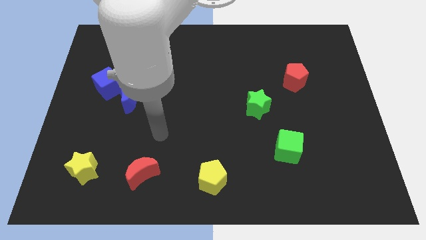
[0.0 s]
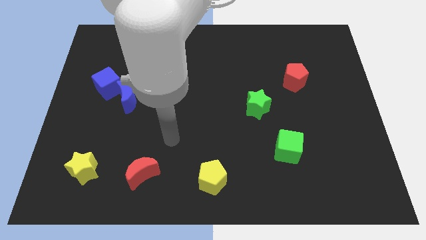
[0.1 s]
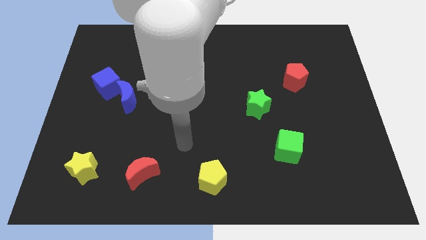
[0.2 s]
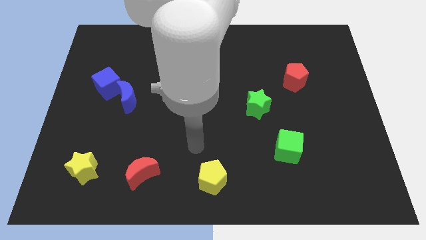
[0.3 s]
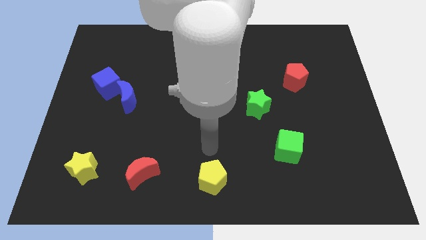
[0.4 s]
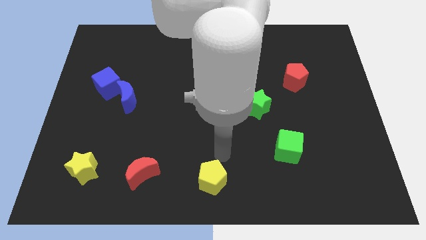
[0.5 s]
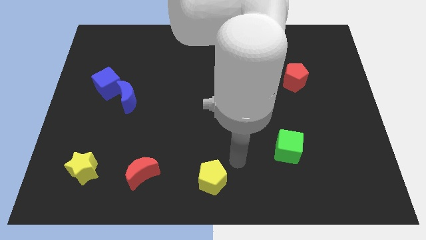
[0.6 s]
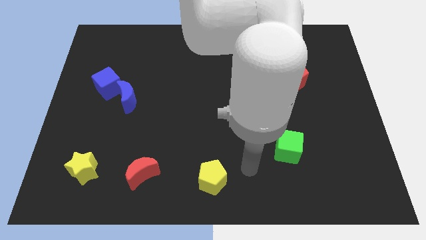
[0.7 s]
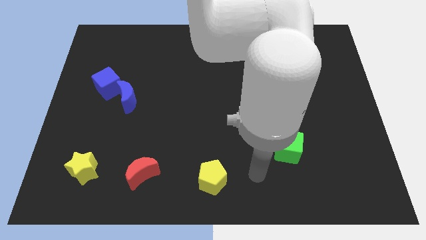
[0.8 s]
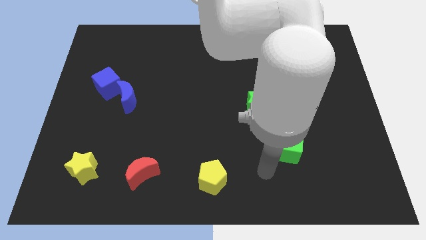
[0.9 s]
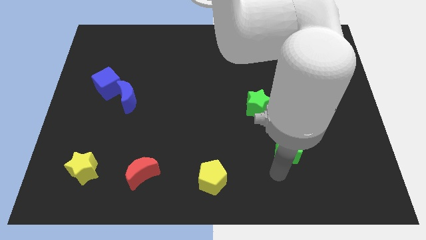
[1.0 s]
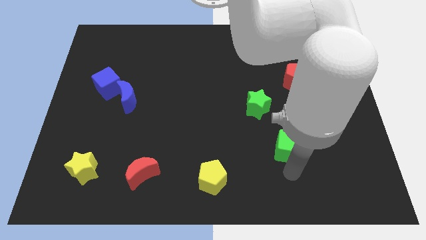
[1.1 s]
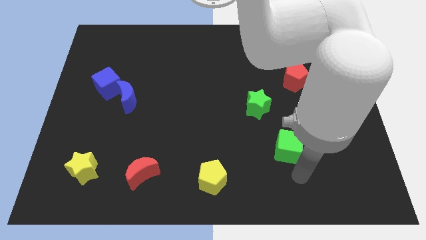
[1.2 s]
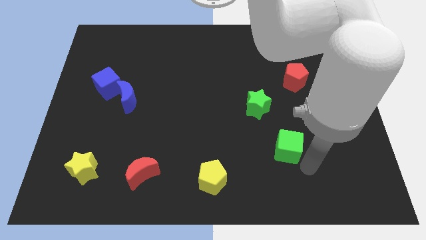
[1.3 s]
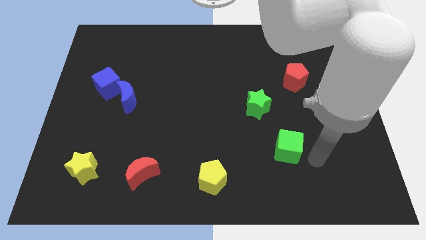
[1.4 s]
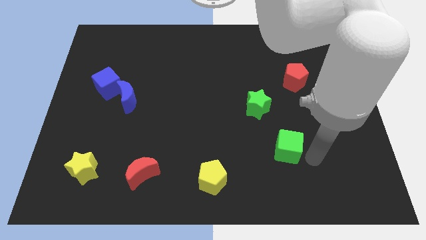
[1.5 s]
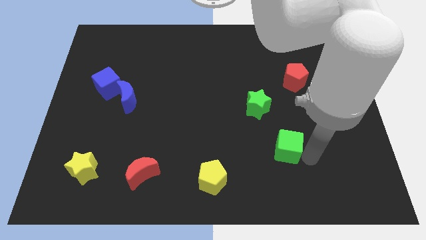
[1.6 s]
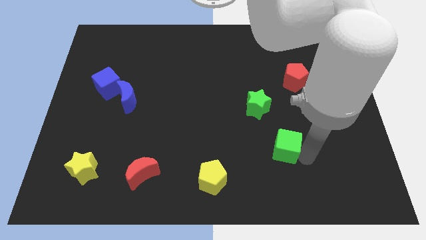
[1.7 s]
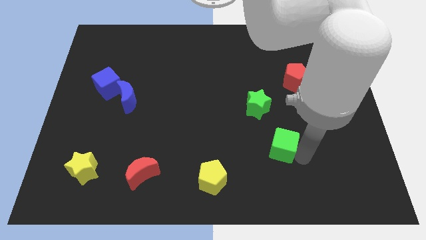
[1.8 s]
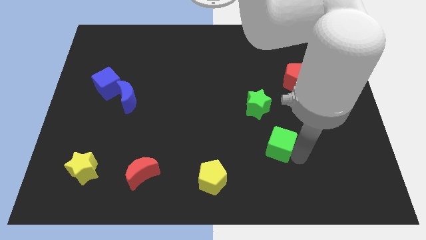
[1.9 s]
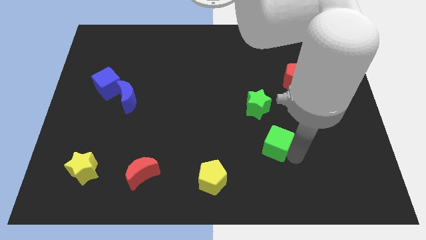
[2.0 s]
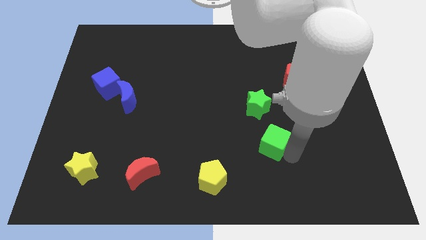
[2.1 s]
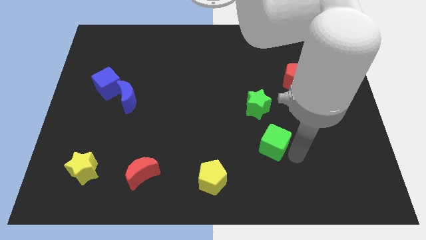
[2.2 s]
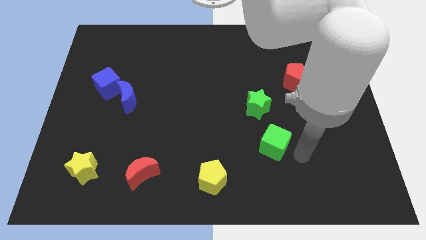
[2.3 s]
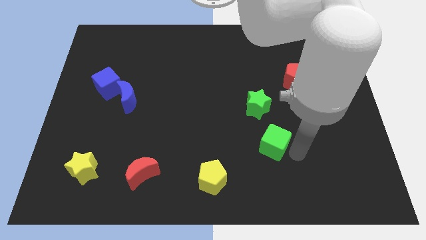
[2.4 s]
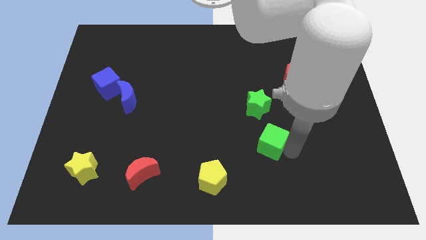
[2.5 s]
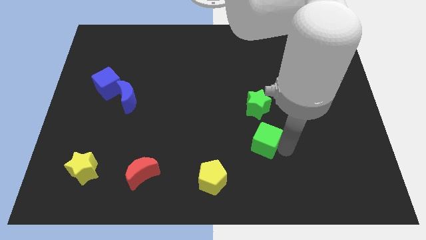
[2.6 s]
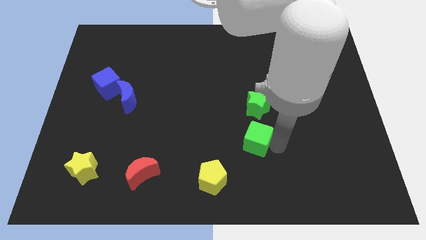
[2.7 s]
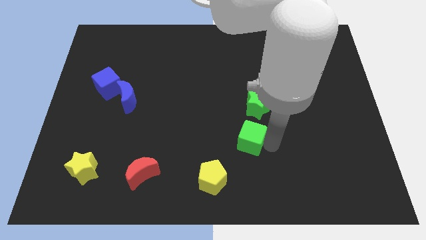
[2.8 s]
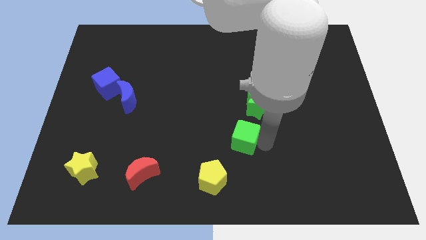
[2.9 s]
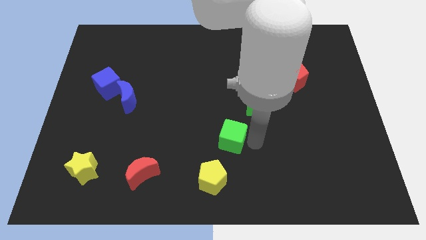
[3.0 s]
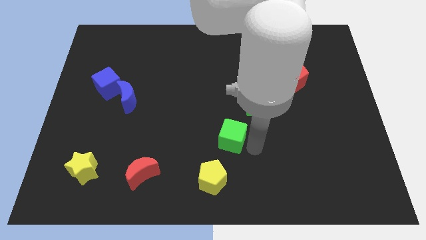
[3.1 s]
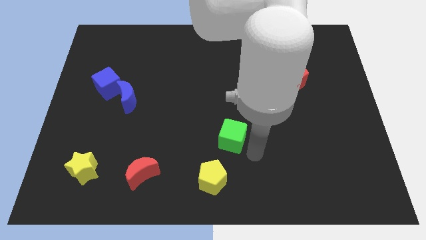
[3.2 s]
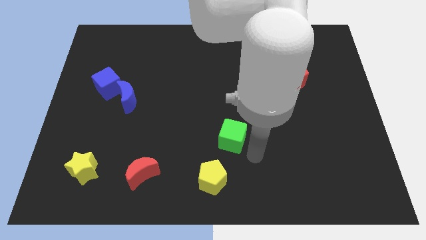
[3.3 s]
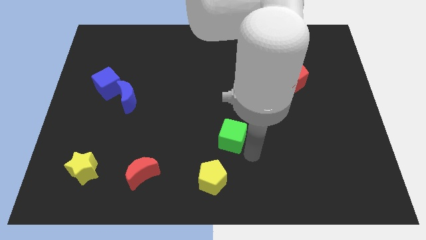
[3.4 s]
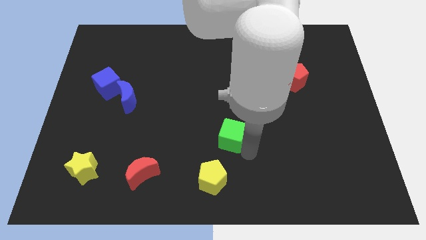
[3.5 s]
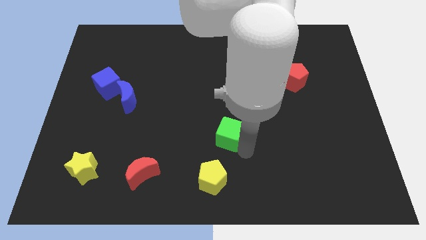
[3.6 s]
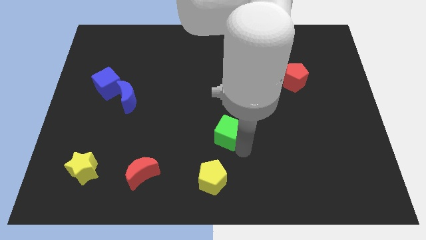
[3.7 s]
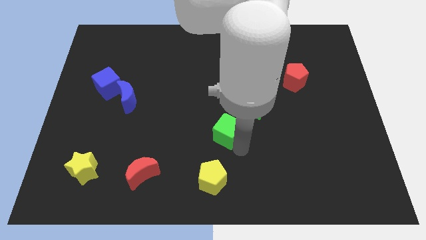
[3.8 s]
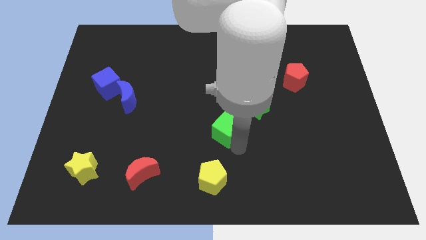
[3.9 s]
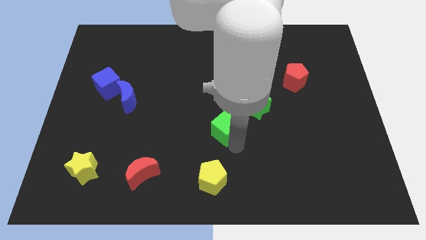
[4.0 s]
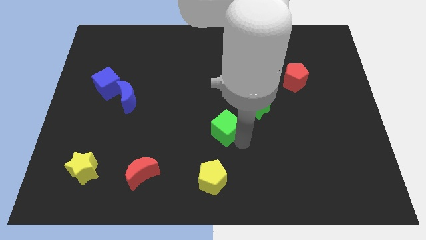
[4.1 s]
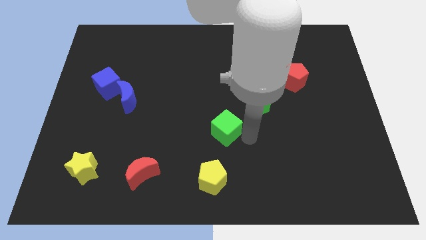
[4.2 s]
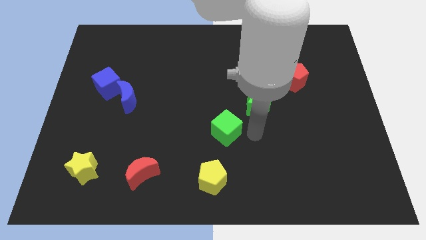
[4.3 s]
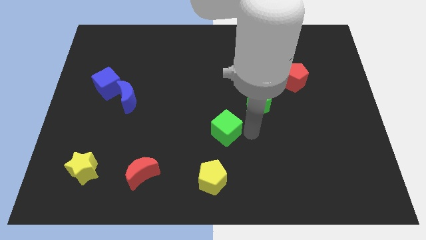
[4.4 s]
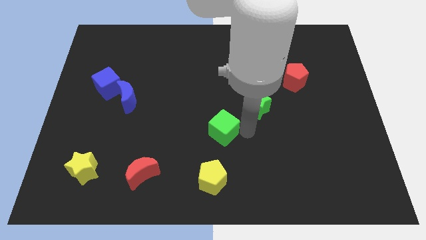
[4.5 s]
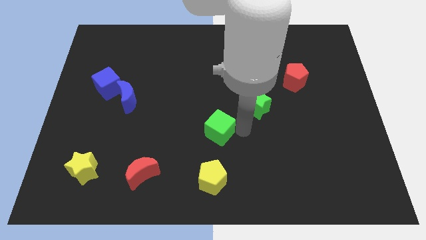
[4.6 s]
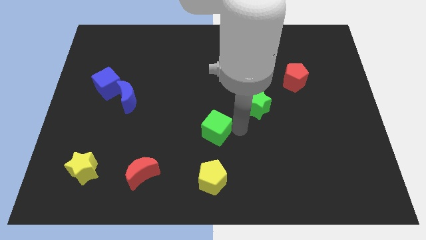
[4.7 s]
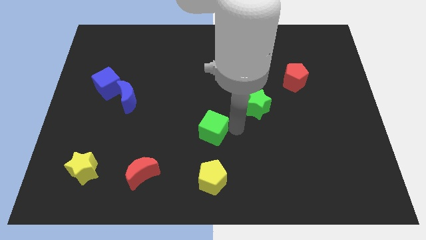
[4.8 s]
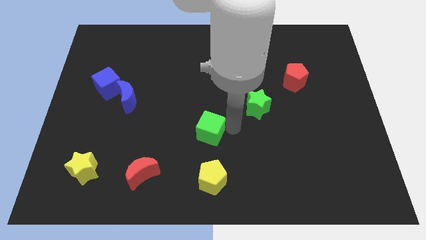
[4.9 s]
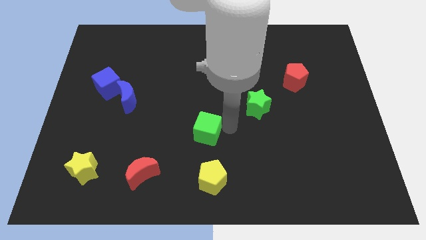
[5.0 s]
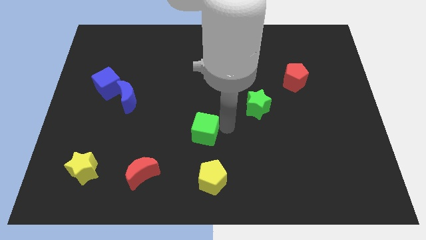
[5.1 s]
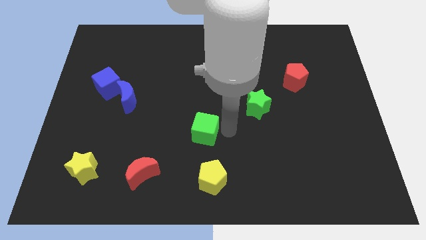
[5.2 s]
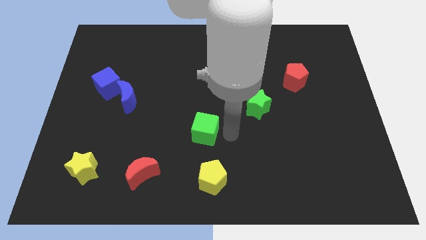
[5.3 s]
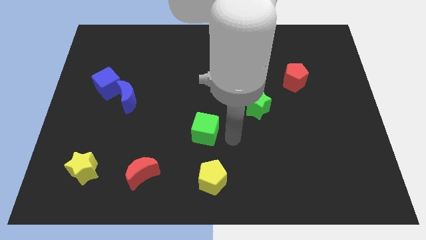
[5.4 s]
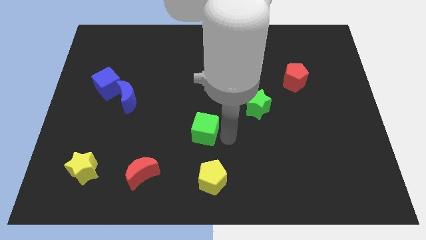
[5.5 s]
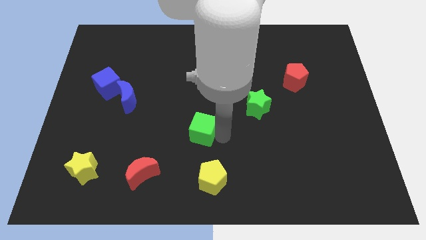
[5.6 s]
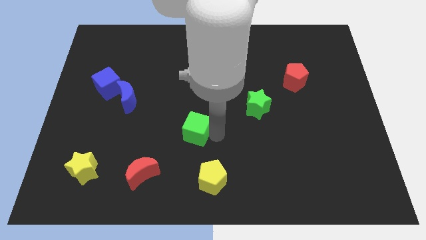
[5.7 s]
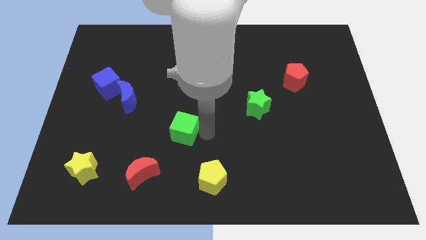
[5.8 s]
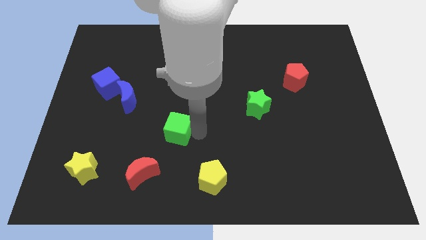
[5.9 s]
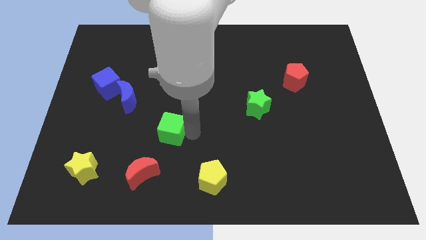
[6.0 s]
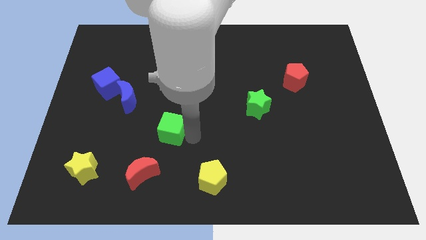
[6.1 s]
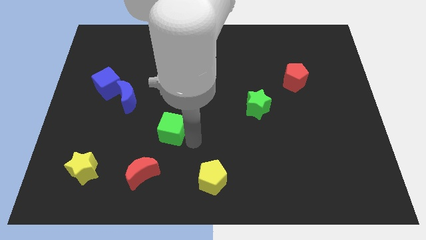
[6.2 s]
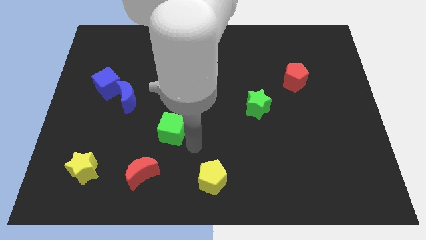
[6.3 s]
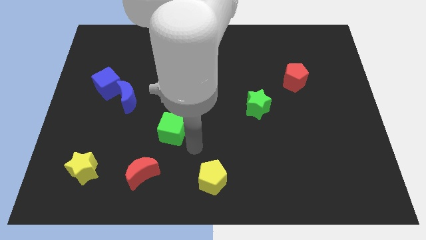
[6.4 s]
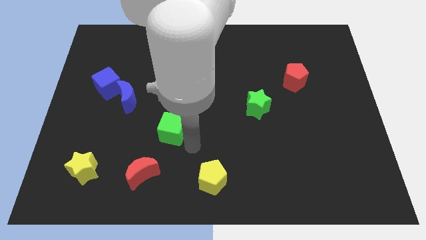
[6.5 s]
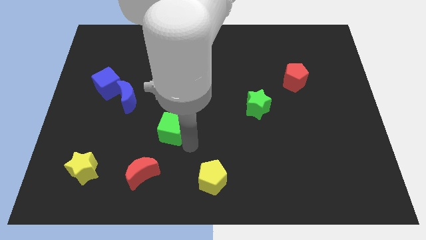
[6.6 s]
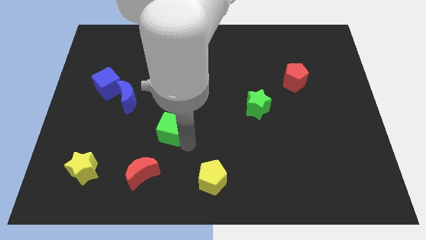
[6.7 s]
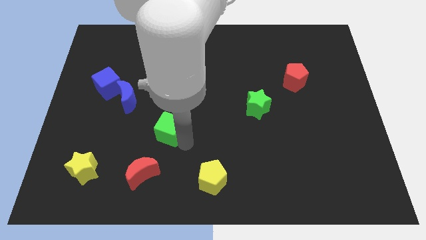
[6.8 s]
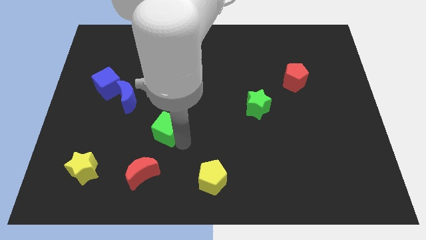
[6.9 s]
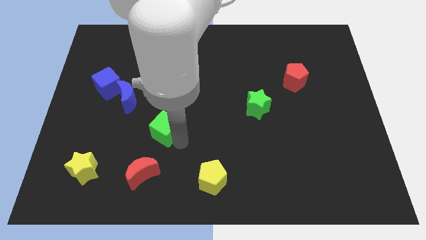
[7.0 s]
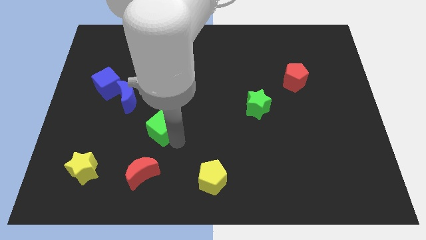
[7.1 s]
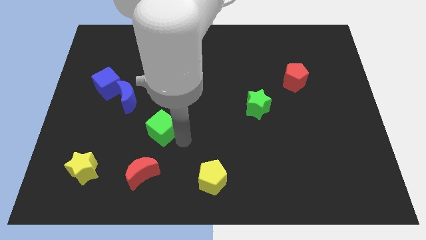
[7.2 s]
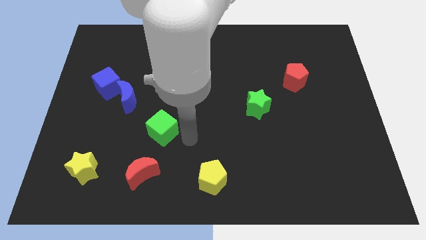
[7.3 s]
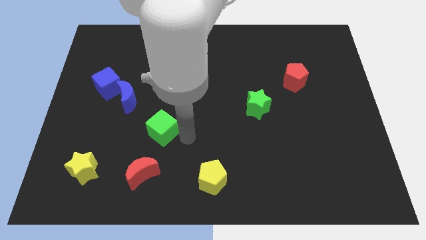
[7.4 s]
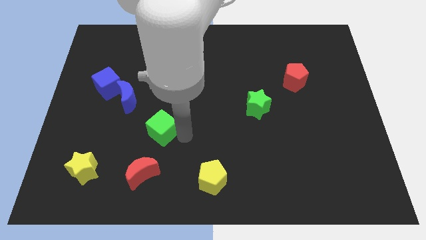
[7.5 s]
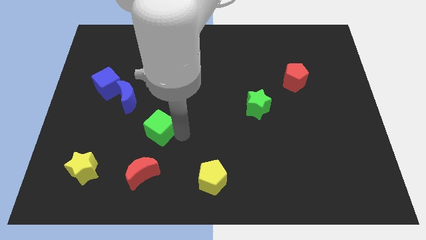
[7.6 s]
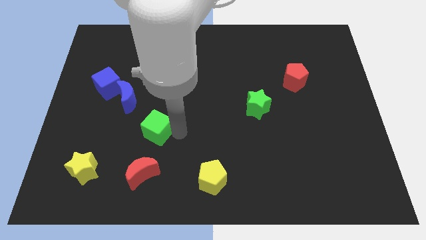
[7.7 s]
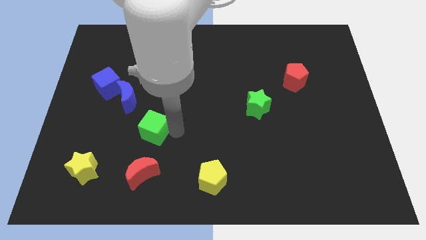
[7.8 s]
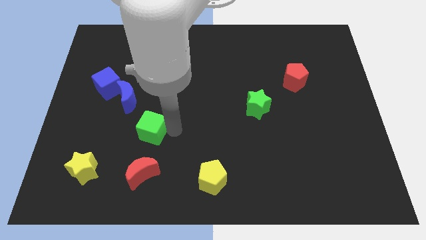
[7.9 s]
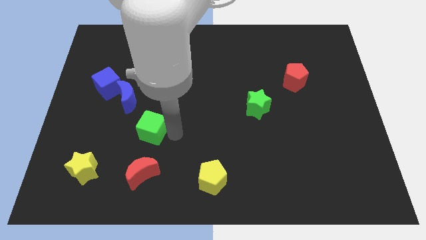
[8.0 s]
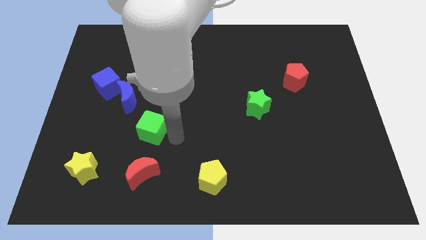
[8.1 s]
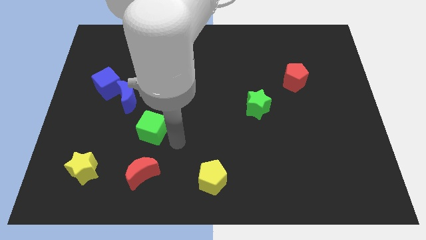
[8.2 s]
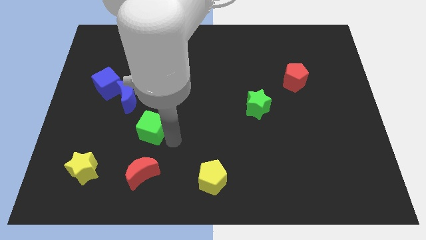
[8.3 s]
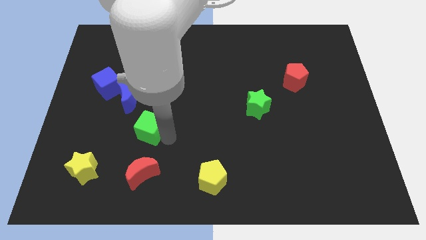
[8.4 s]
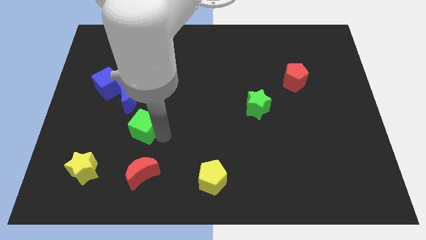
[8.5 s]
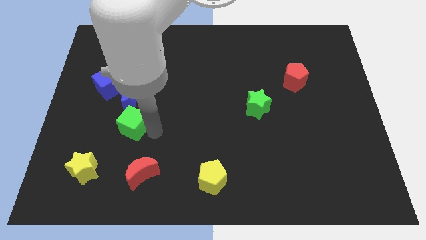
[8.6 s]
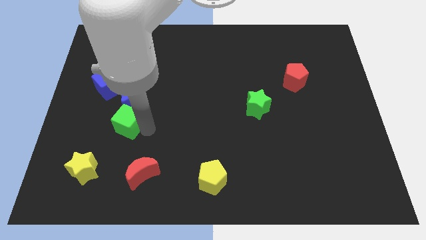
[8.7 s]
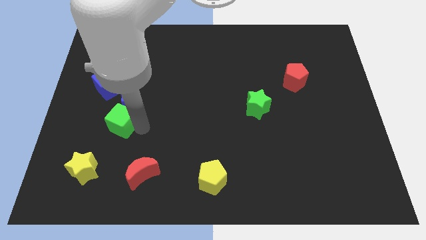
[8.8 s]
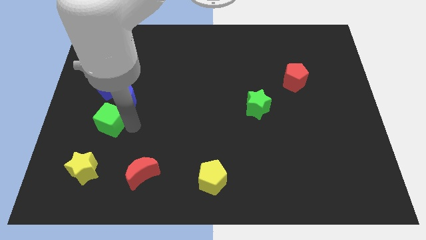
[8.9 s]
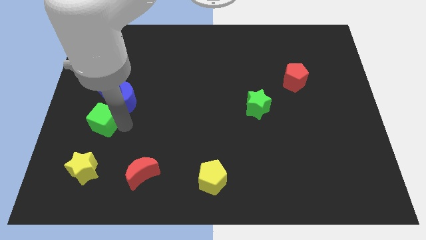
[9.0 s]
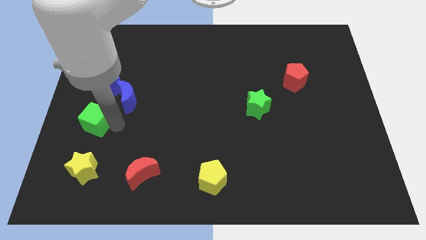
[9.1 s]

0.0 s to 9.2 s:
move the green cube to the left side of the board
